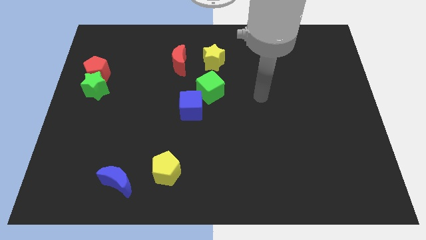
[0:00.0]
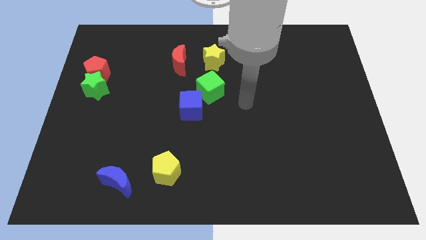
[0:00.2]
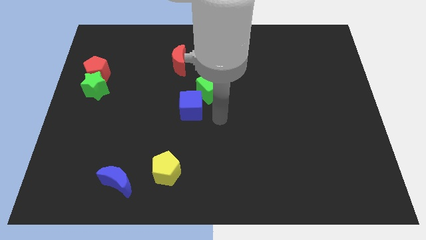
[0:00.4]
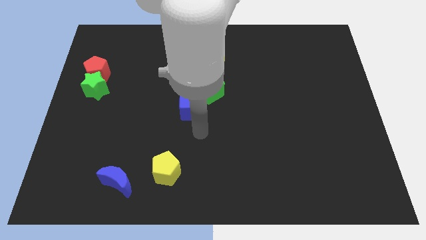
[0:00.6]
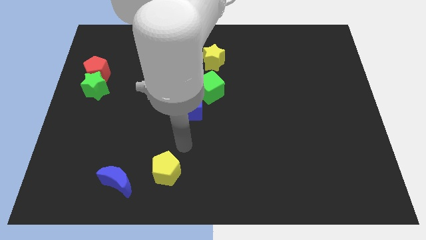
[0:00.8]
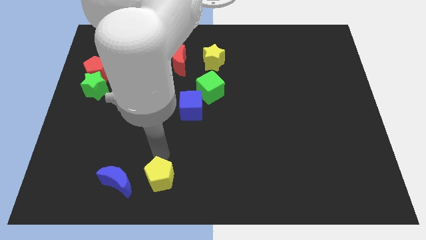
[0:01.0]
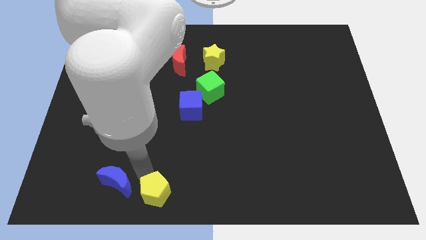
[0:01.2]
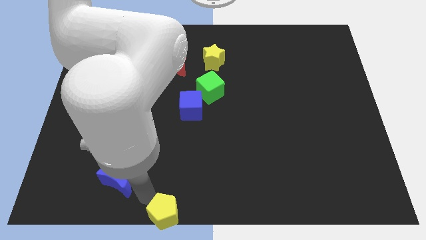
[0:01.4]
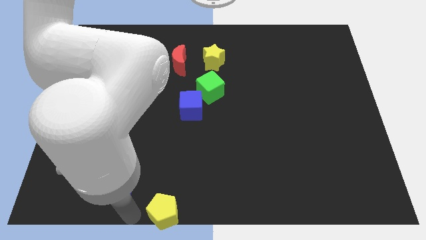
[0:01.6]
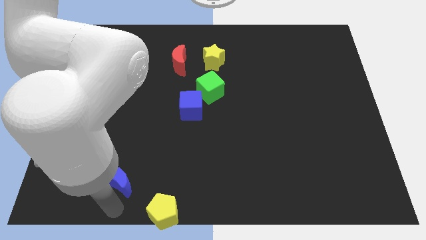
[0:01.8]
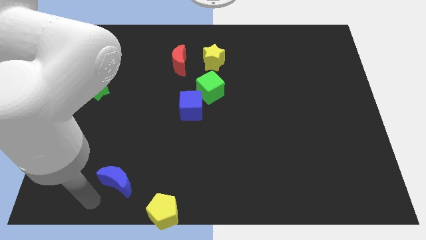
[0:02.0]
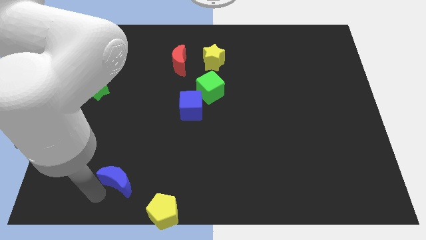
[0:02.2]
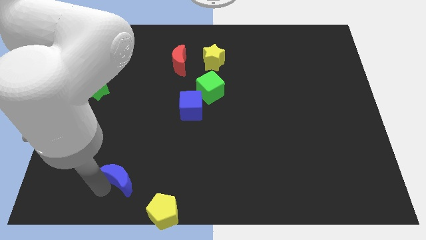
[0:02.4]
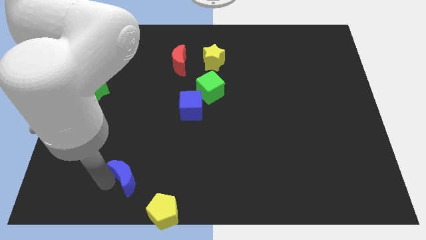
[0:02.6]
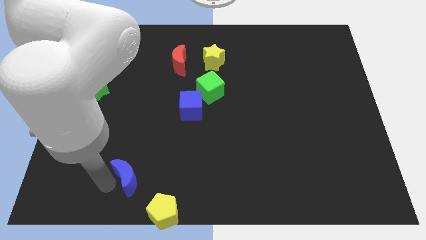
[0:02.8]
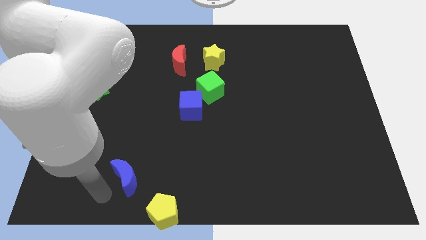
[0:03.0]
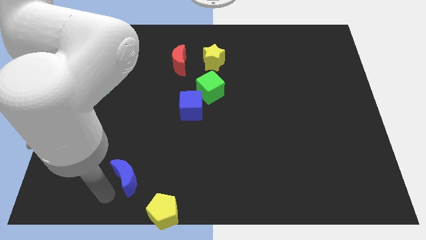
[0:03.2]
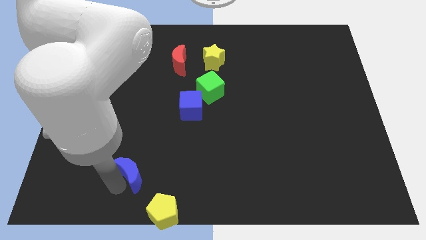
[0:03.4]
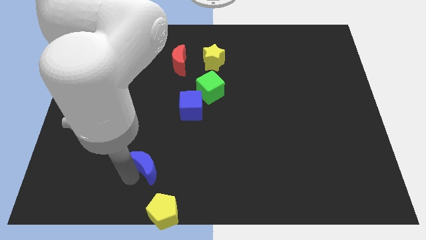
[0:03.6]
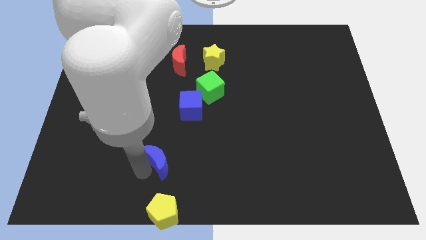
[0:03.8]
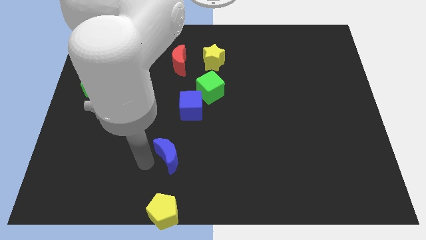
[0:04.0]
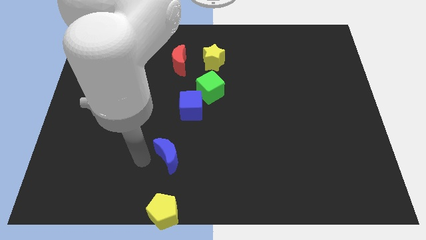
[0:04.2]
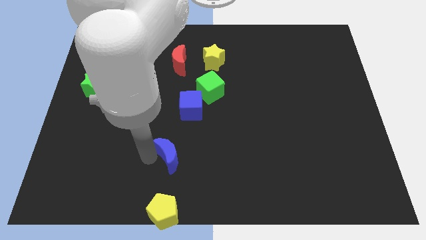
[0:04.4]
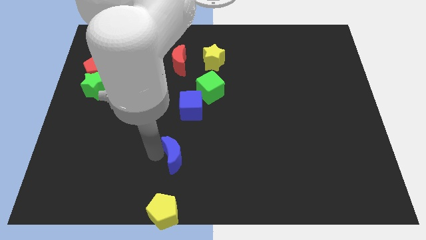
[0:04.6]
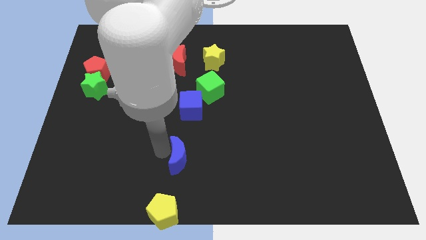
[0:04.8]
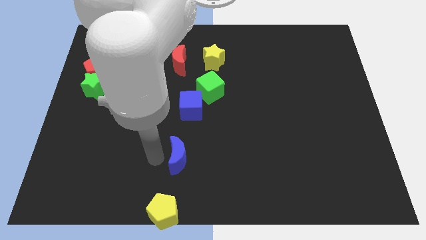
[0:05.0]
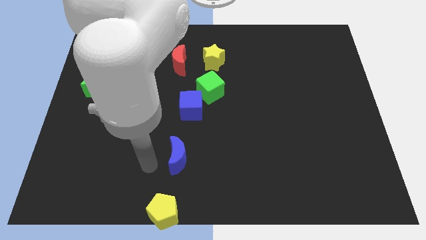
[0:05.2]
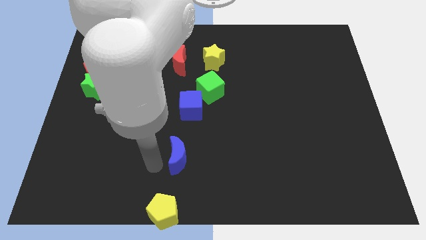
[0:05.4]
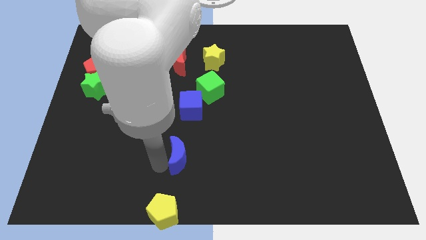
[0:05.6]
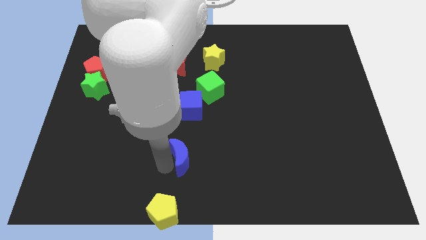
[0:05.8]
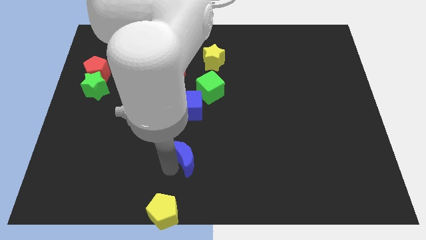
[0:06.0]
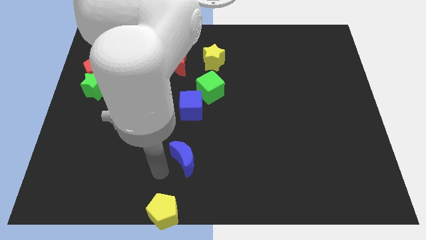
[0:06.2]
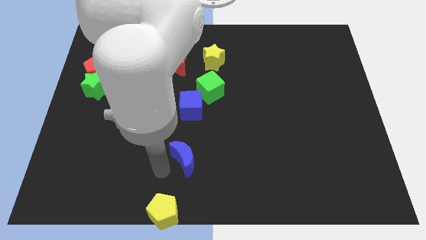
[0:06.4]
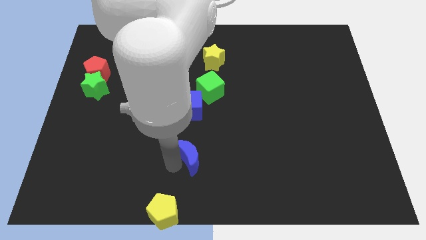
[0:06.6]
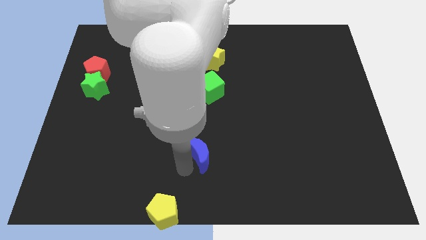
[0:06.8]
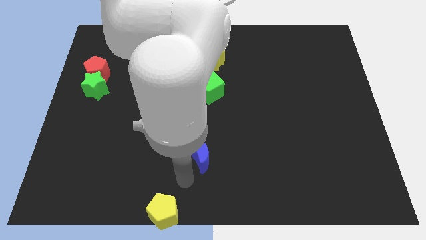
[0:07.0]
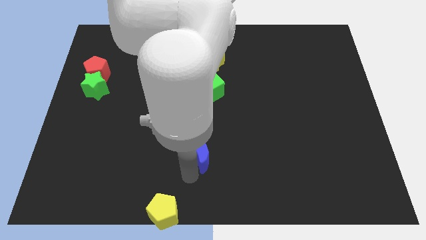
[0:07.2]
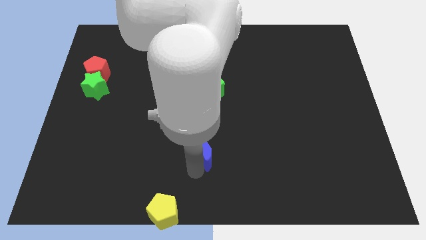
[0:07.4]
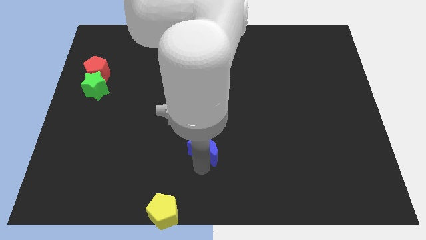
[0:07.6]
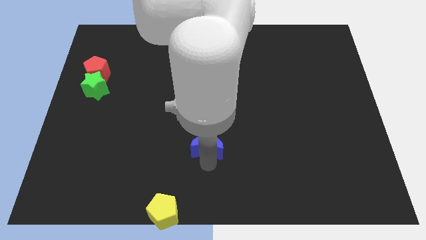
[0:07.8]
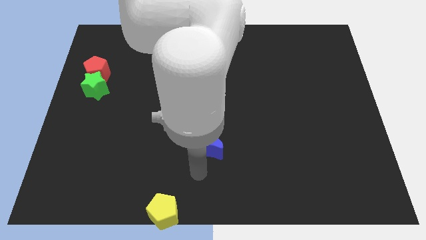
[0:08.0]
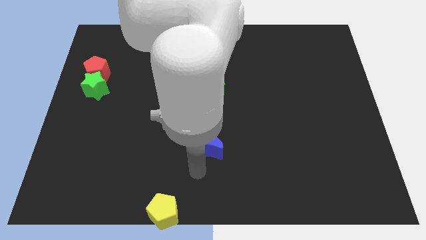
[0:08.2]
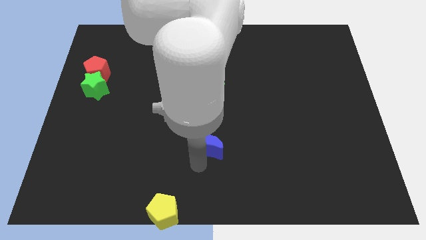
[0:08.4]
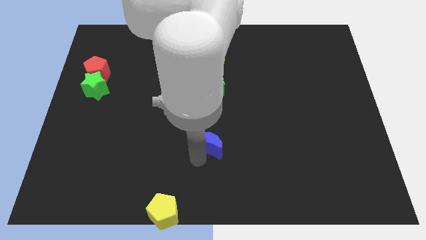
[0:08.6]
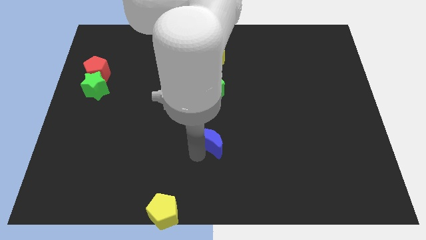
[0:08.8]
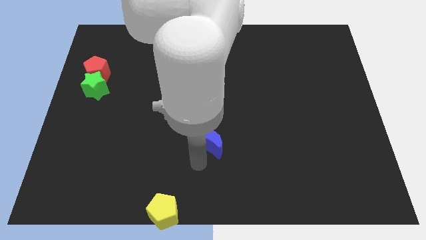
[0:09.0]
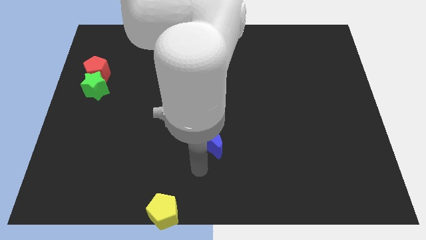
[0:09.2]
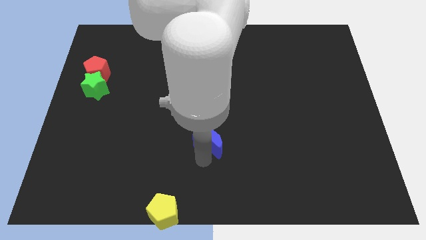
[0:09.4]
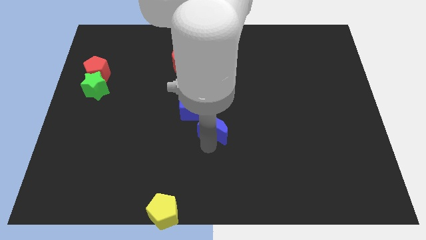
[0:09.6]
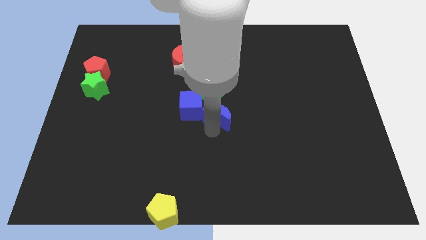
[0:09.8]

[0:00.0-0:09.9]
put the blue moon diagonally down and to the right of the green cube

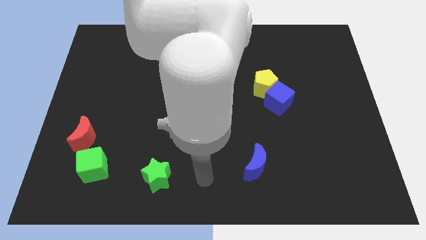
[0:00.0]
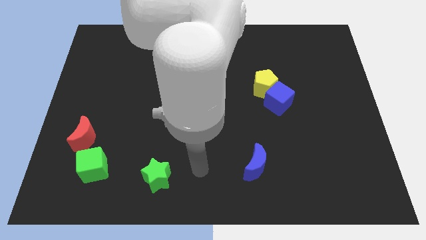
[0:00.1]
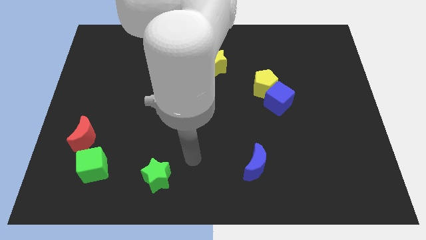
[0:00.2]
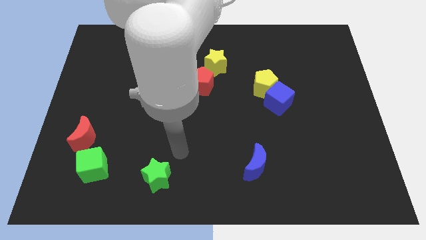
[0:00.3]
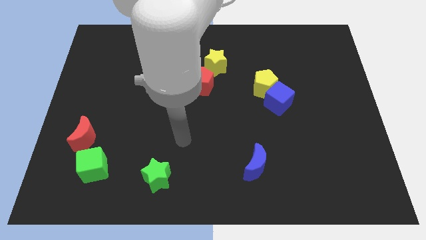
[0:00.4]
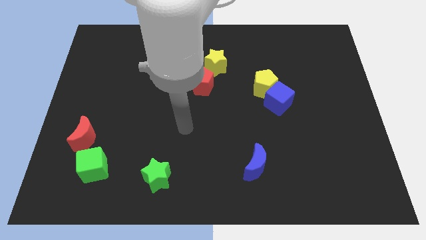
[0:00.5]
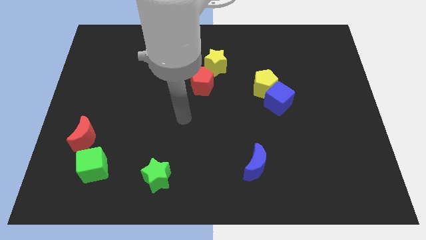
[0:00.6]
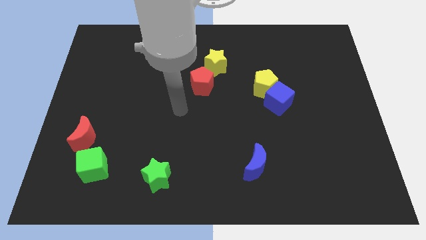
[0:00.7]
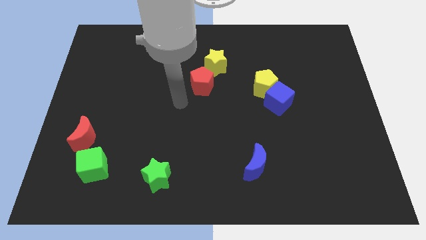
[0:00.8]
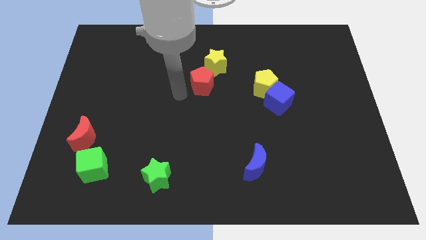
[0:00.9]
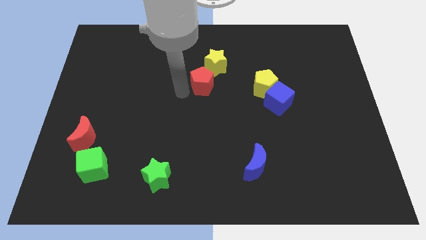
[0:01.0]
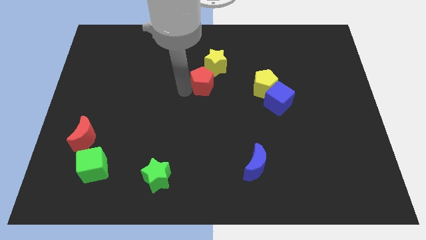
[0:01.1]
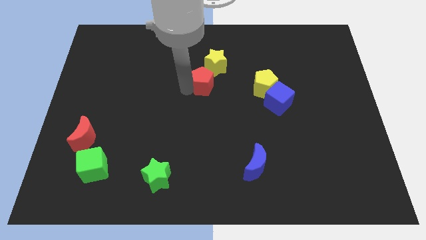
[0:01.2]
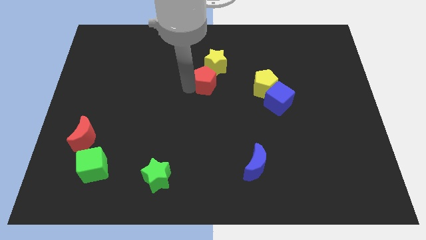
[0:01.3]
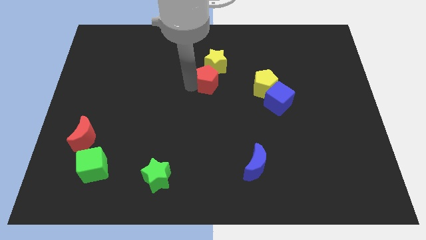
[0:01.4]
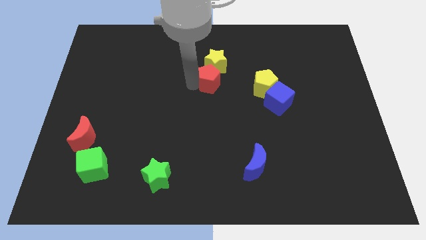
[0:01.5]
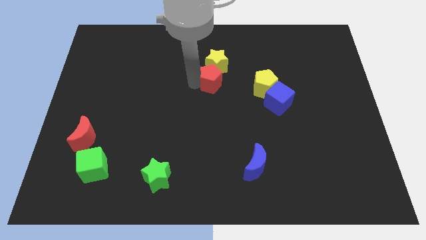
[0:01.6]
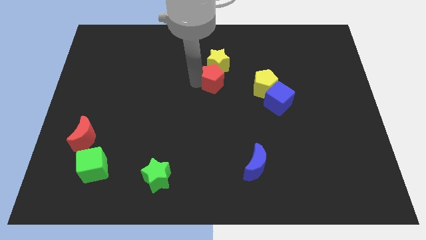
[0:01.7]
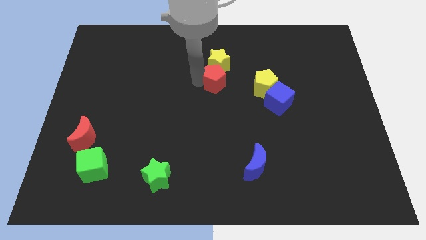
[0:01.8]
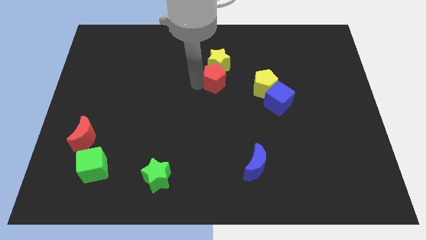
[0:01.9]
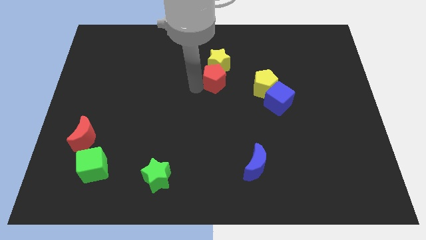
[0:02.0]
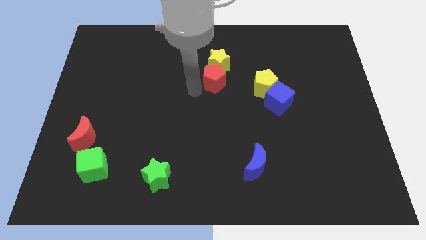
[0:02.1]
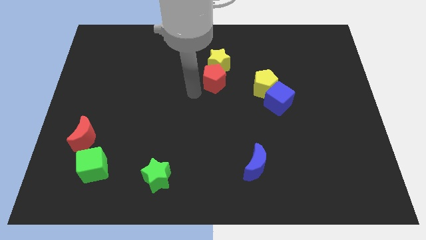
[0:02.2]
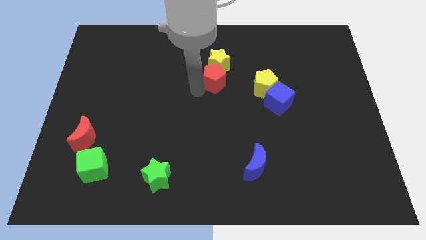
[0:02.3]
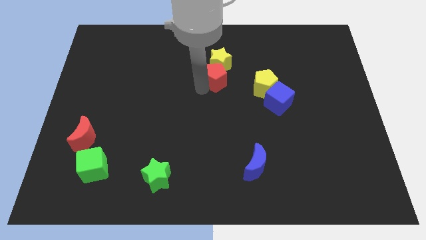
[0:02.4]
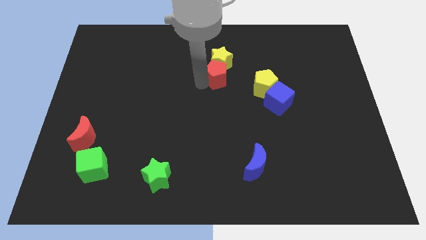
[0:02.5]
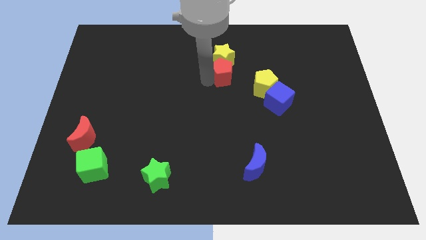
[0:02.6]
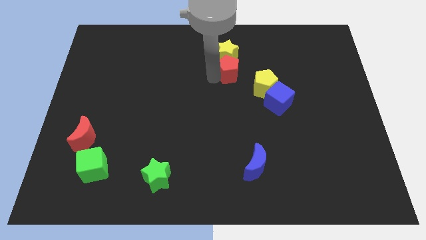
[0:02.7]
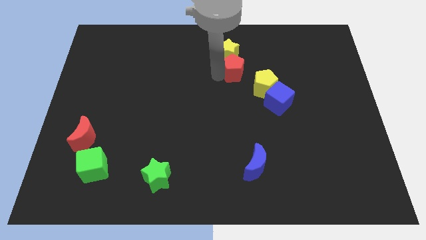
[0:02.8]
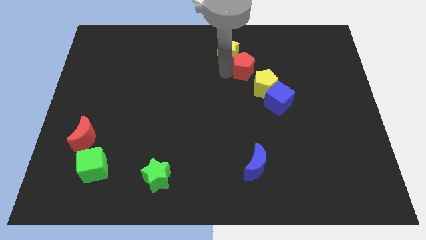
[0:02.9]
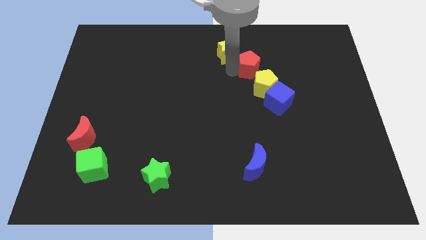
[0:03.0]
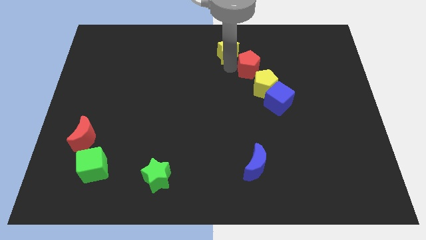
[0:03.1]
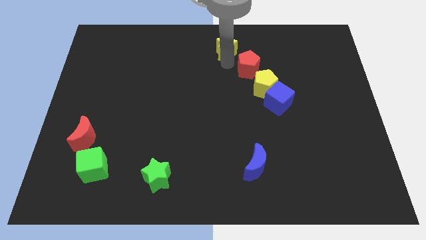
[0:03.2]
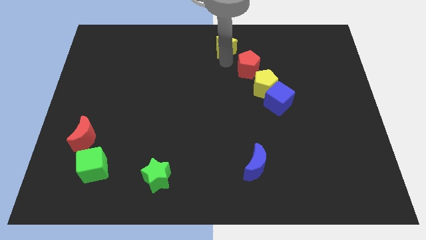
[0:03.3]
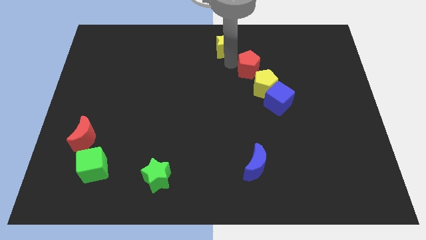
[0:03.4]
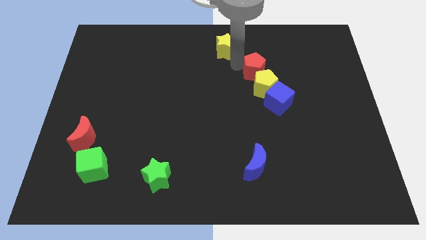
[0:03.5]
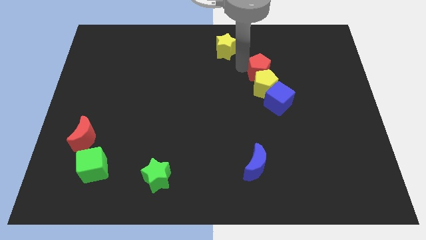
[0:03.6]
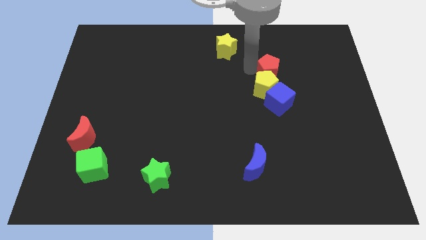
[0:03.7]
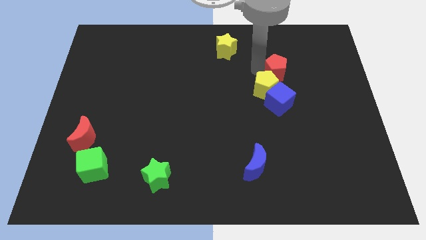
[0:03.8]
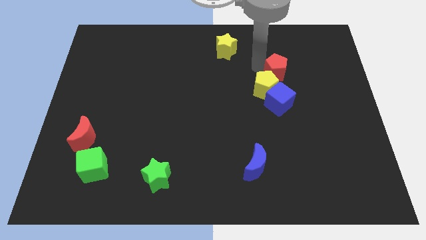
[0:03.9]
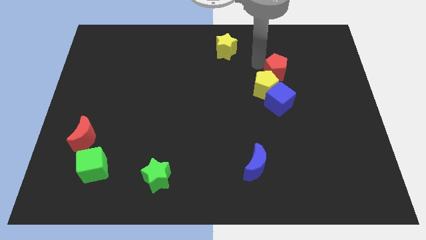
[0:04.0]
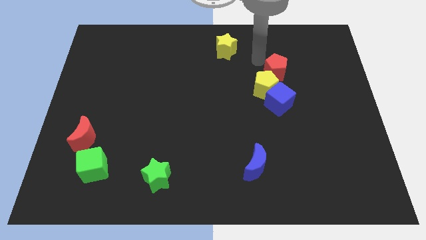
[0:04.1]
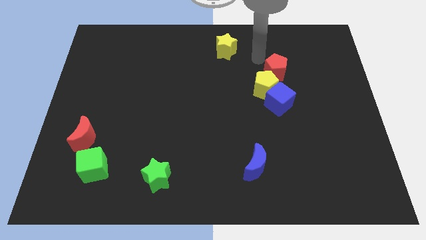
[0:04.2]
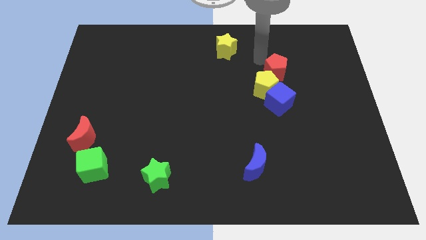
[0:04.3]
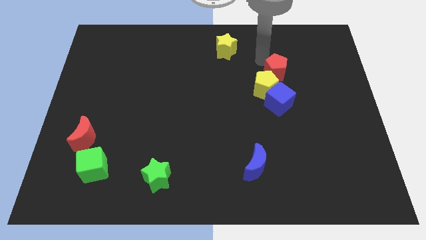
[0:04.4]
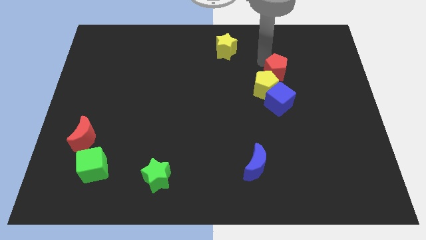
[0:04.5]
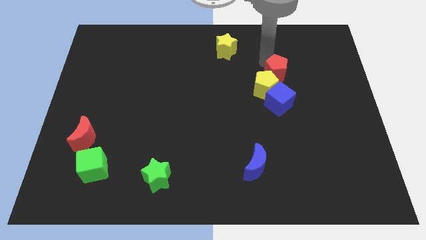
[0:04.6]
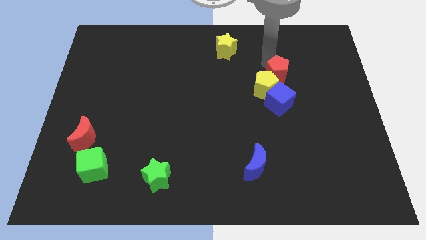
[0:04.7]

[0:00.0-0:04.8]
push the red pentagon to the right side of the yellow pentagon
